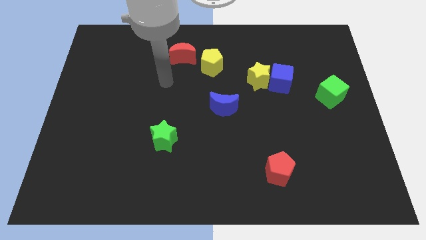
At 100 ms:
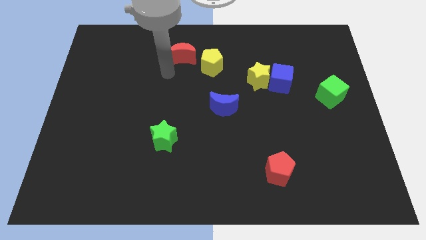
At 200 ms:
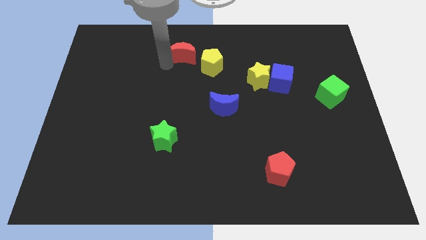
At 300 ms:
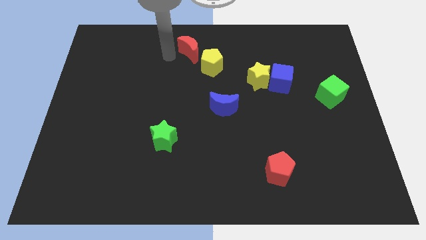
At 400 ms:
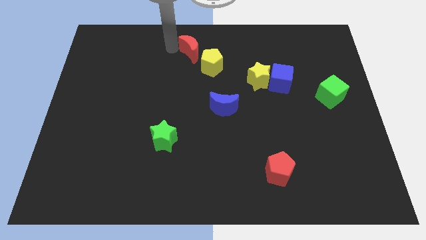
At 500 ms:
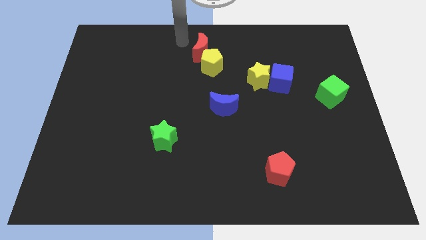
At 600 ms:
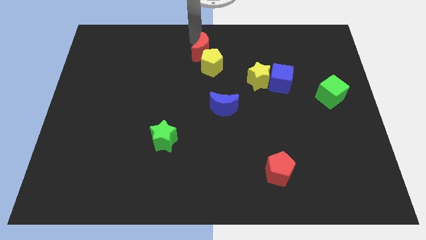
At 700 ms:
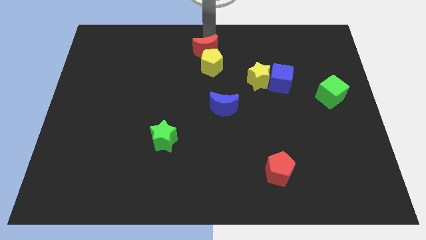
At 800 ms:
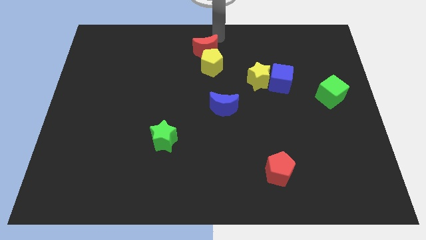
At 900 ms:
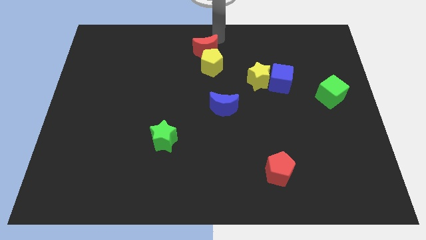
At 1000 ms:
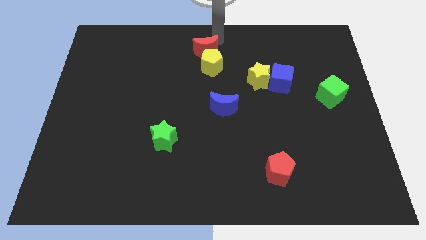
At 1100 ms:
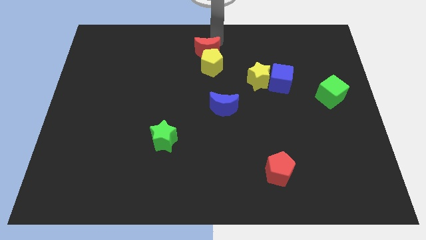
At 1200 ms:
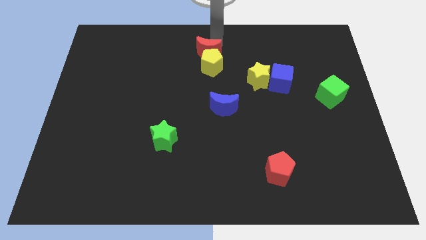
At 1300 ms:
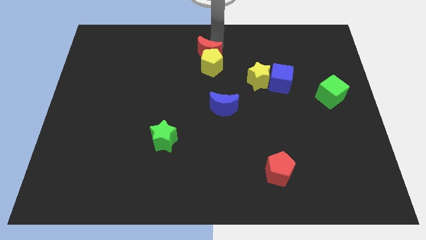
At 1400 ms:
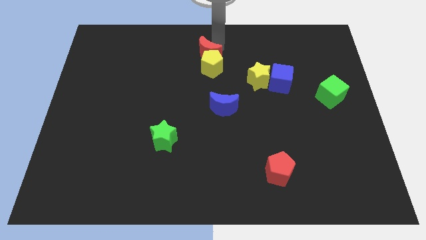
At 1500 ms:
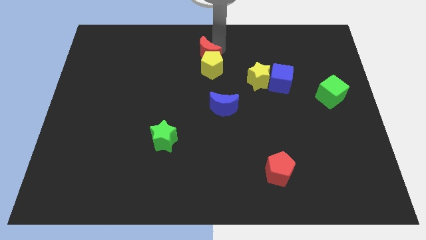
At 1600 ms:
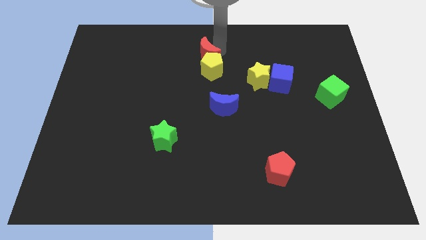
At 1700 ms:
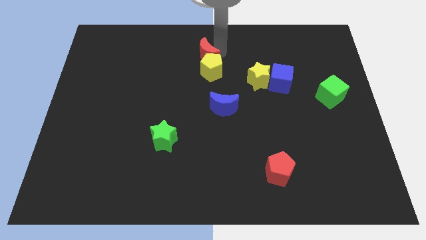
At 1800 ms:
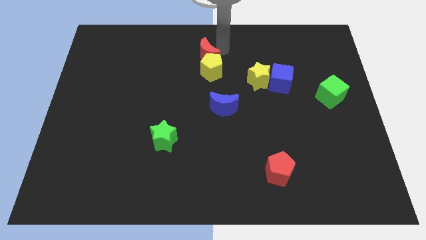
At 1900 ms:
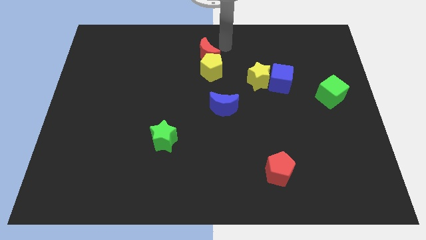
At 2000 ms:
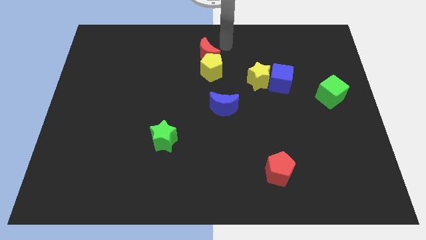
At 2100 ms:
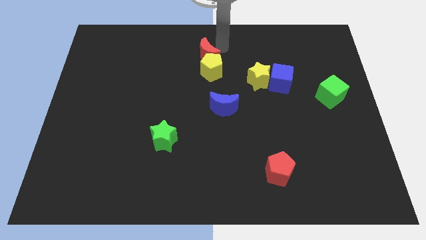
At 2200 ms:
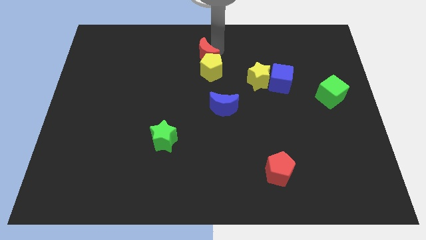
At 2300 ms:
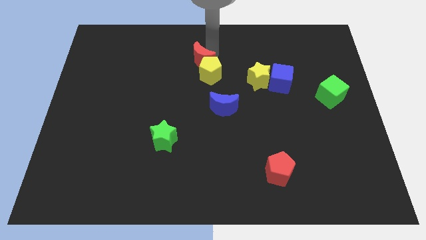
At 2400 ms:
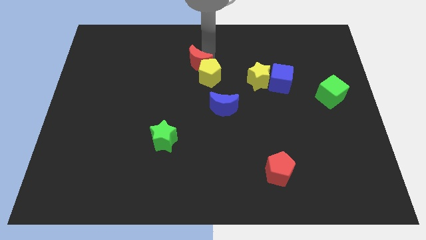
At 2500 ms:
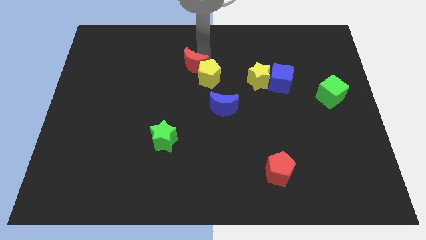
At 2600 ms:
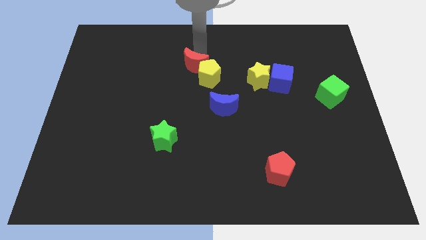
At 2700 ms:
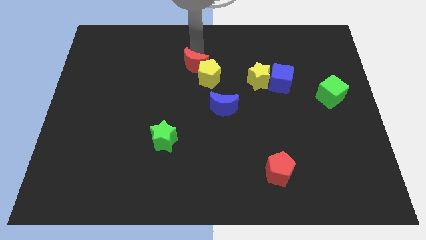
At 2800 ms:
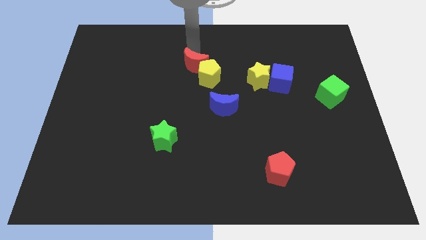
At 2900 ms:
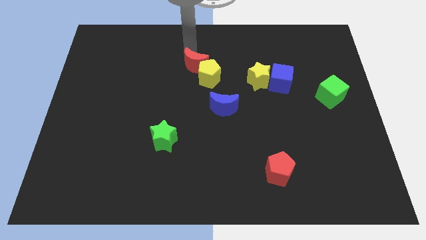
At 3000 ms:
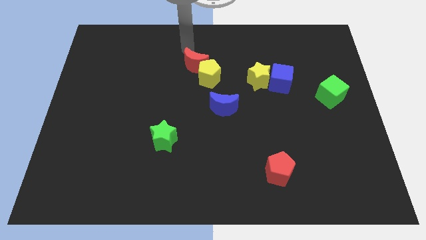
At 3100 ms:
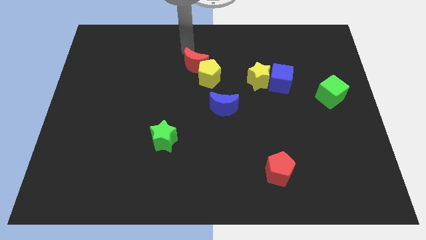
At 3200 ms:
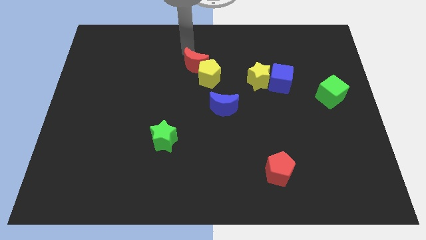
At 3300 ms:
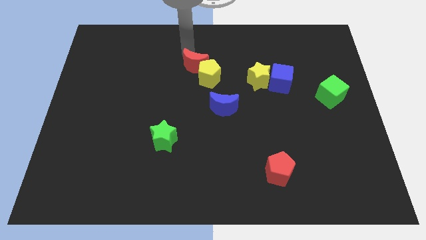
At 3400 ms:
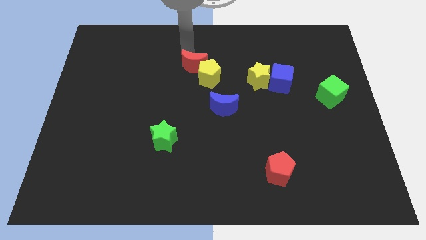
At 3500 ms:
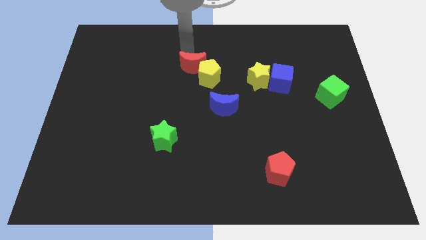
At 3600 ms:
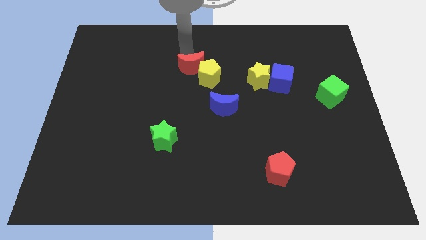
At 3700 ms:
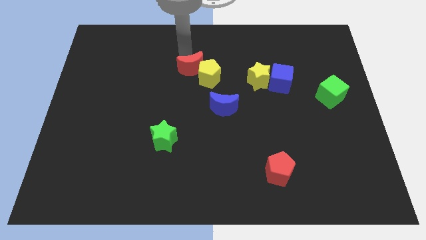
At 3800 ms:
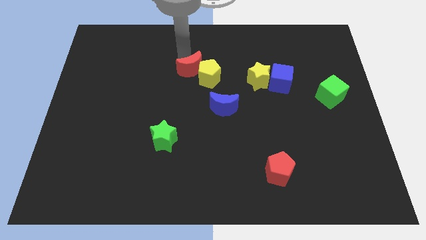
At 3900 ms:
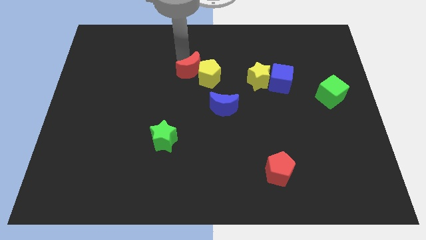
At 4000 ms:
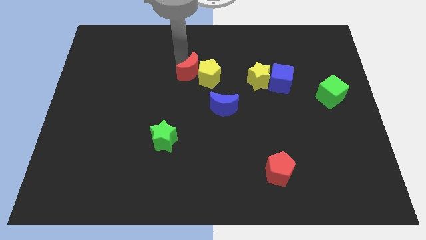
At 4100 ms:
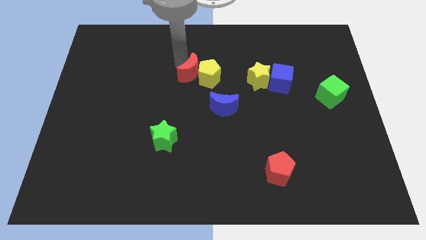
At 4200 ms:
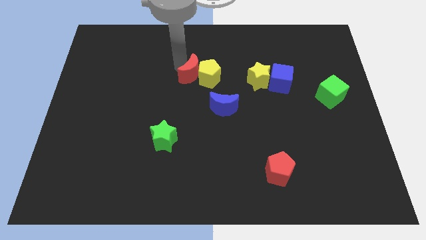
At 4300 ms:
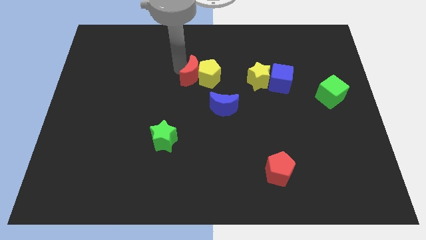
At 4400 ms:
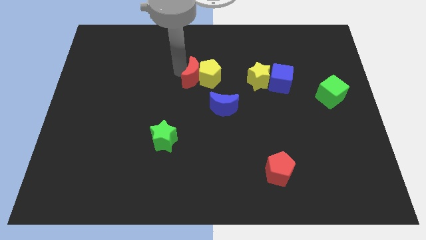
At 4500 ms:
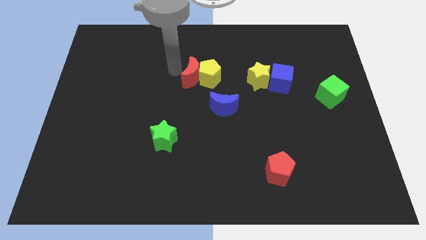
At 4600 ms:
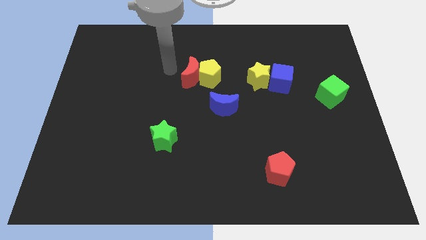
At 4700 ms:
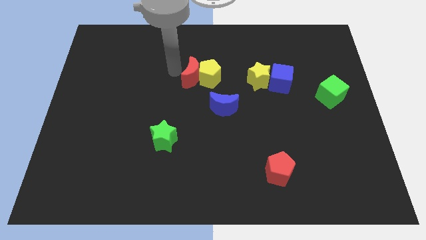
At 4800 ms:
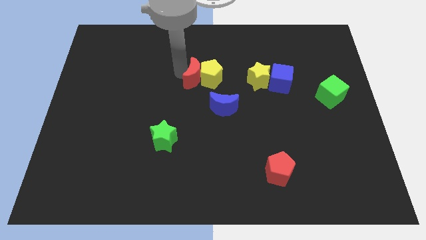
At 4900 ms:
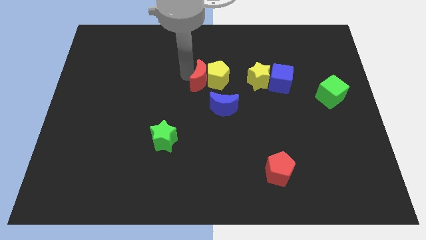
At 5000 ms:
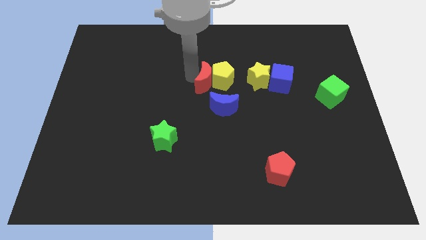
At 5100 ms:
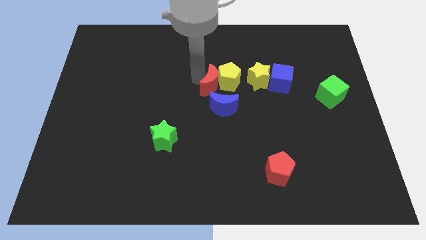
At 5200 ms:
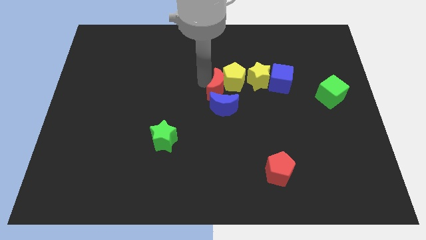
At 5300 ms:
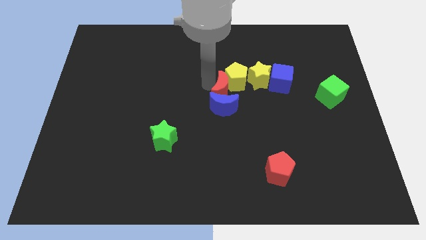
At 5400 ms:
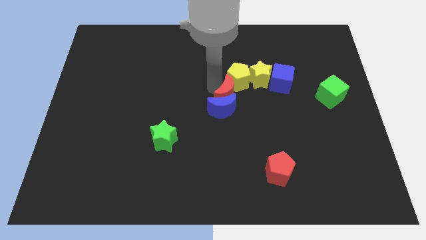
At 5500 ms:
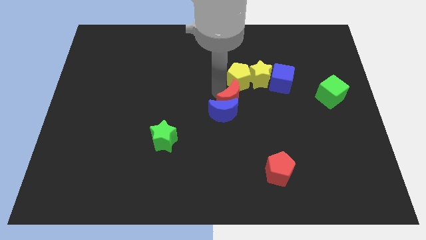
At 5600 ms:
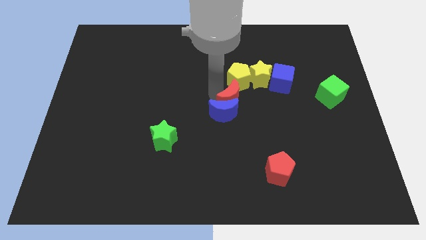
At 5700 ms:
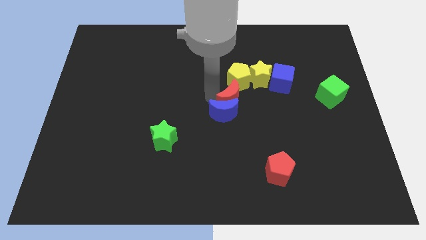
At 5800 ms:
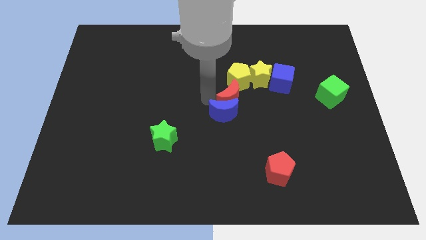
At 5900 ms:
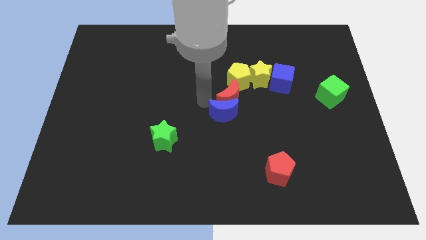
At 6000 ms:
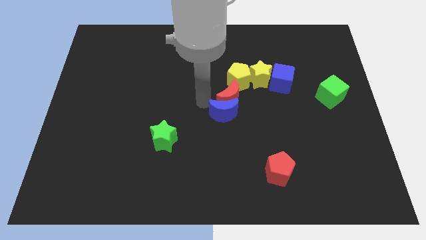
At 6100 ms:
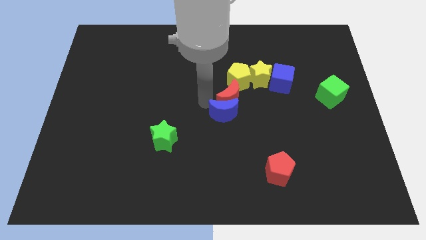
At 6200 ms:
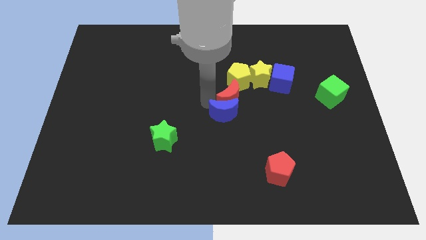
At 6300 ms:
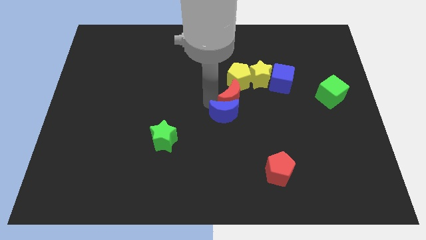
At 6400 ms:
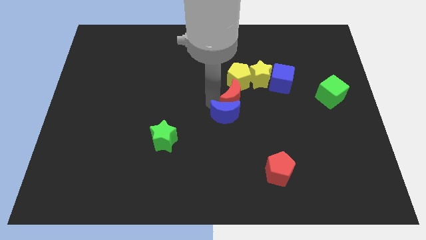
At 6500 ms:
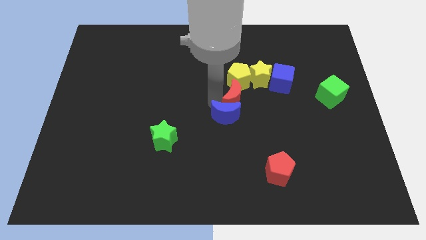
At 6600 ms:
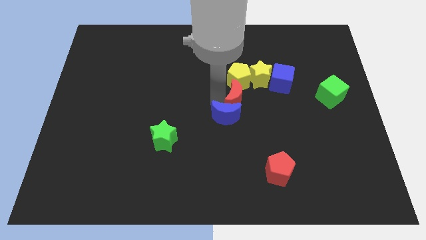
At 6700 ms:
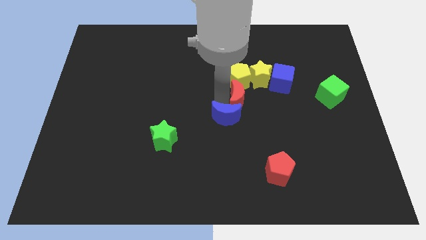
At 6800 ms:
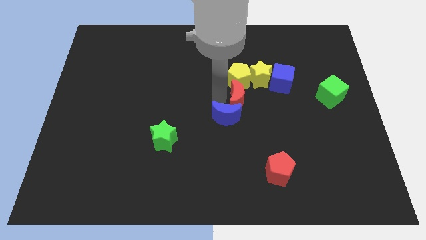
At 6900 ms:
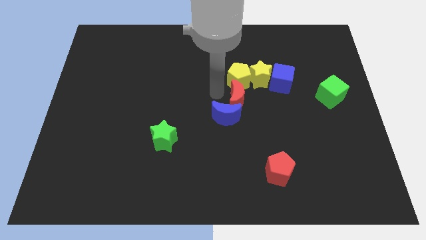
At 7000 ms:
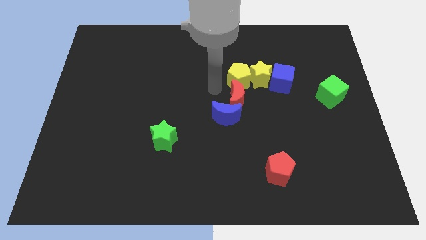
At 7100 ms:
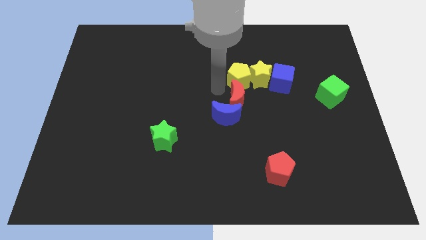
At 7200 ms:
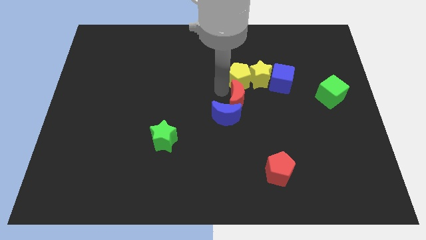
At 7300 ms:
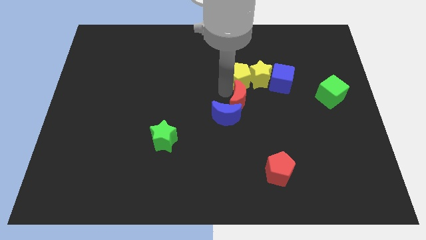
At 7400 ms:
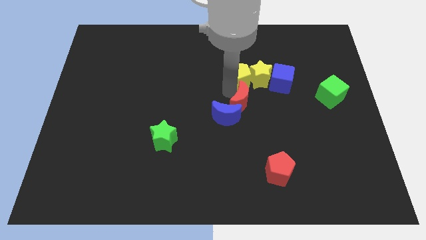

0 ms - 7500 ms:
push the red moon to the right side of the blue moon

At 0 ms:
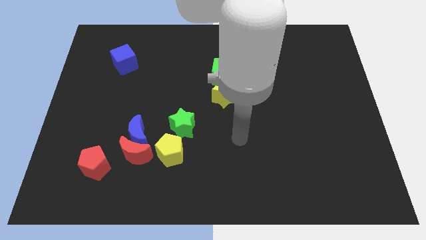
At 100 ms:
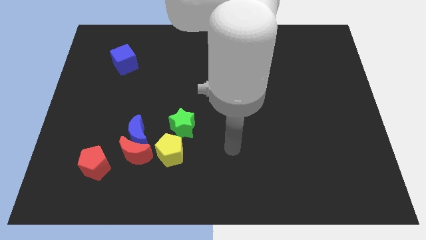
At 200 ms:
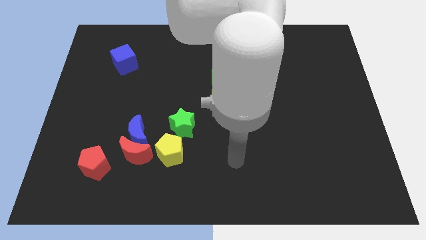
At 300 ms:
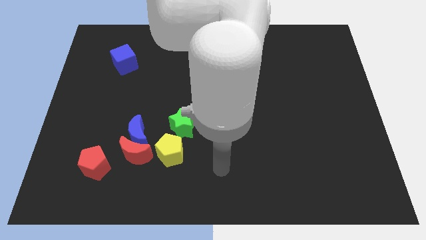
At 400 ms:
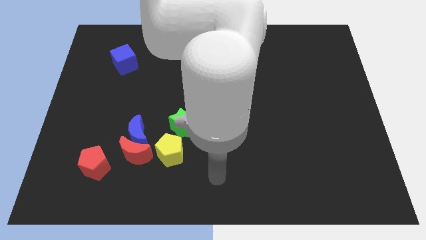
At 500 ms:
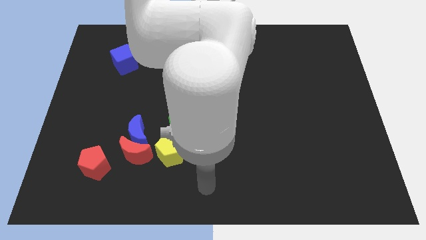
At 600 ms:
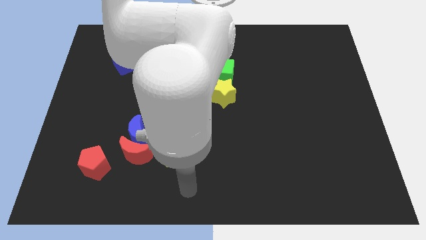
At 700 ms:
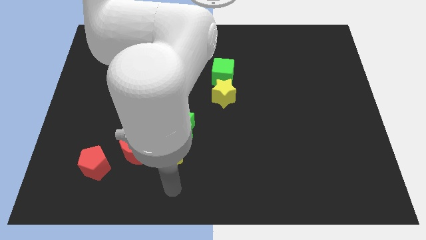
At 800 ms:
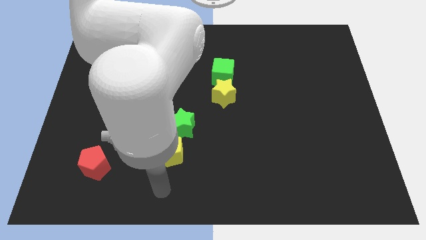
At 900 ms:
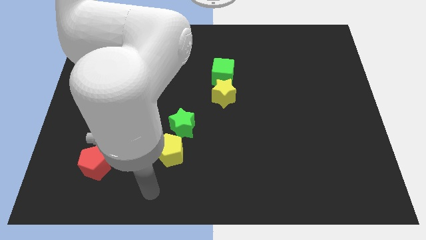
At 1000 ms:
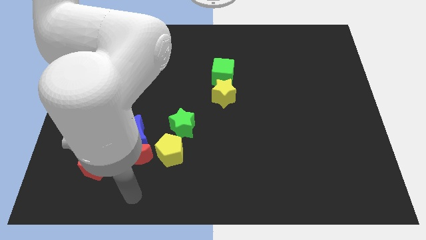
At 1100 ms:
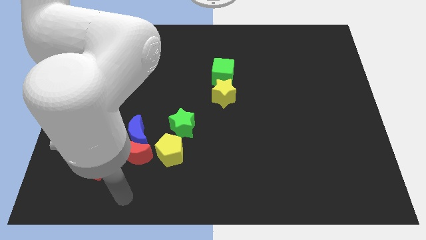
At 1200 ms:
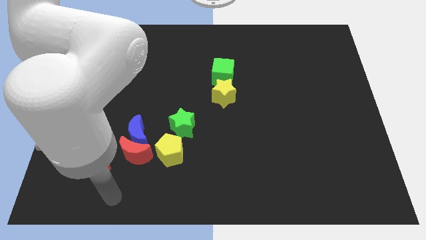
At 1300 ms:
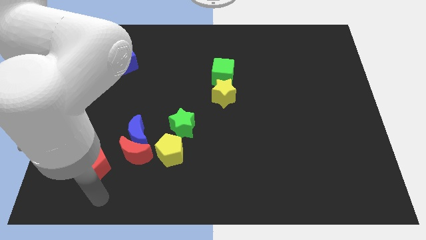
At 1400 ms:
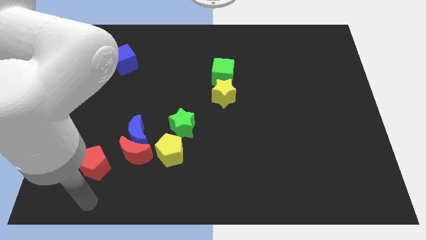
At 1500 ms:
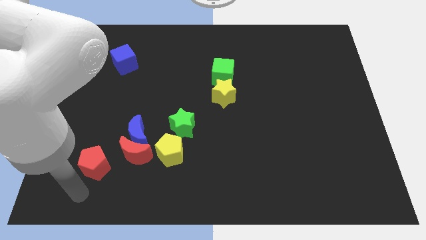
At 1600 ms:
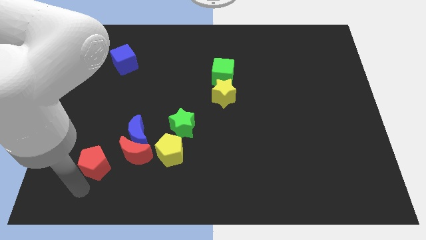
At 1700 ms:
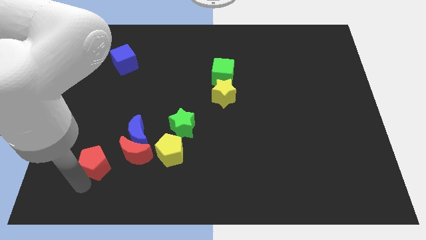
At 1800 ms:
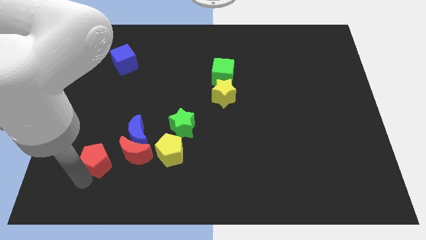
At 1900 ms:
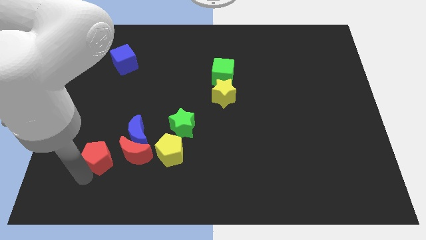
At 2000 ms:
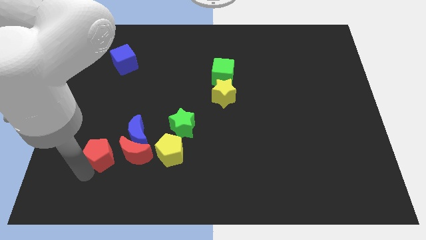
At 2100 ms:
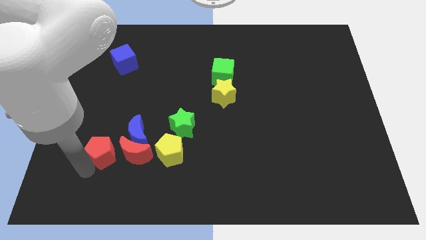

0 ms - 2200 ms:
push the red pentagon to the top left of the red moon
